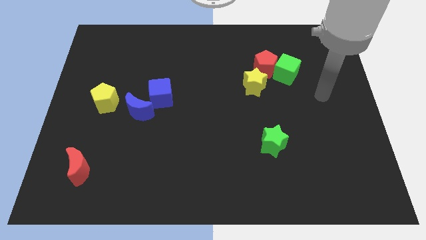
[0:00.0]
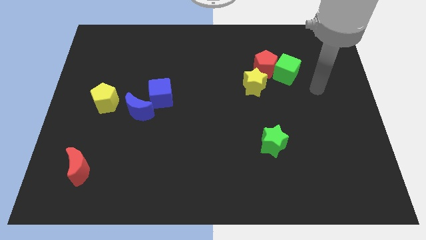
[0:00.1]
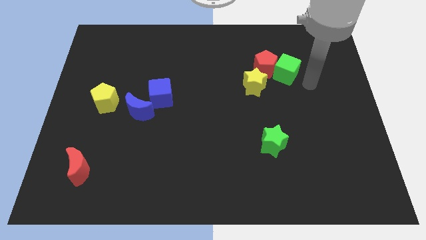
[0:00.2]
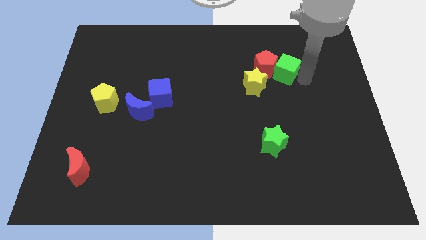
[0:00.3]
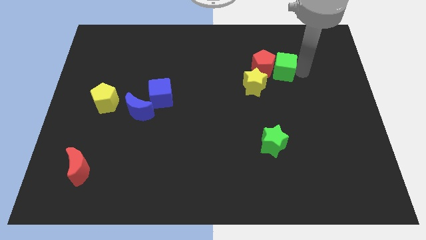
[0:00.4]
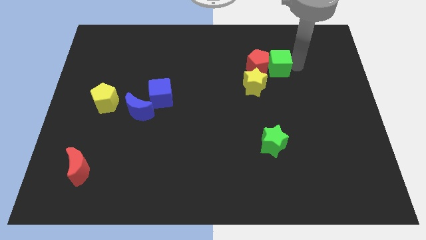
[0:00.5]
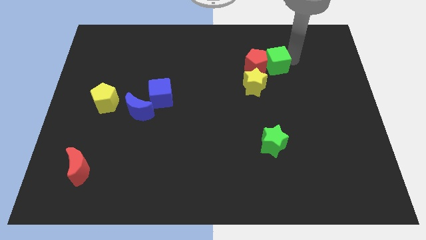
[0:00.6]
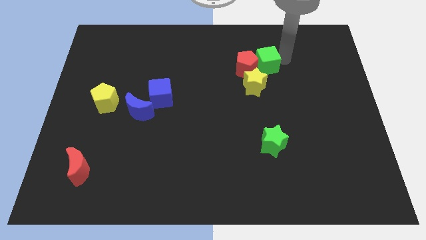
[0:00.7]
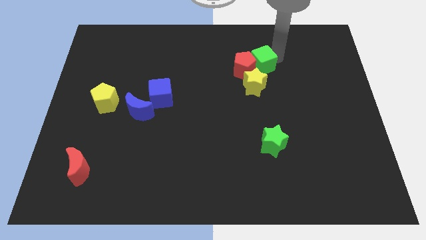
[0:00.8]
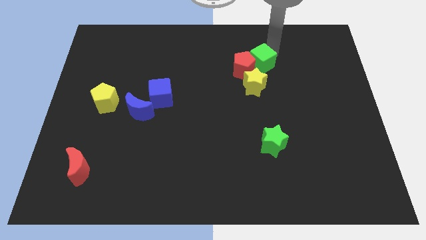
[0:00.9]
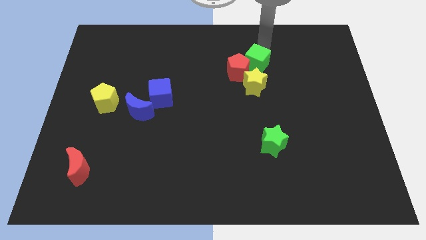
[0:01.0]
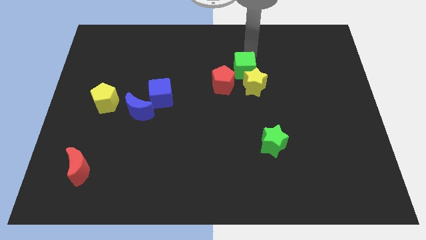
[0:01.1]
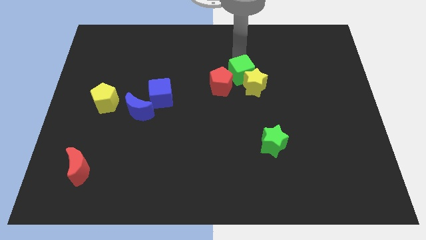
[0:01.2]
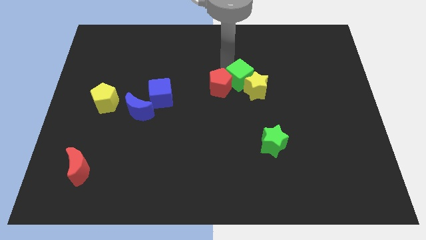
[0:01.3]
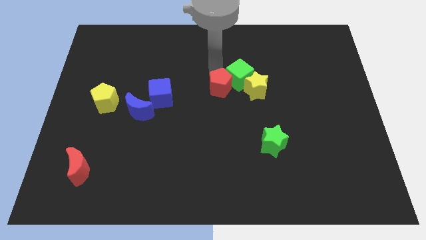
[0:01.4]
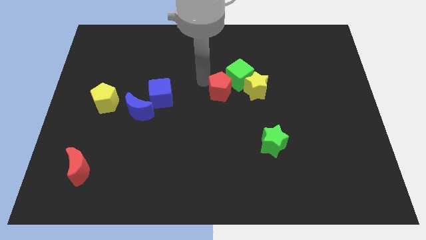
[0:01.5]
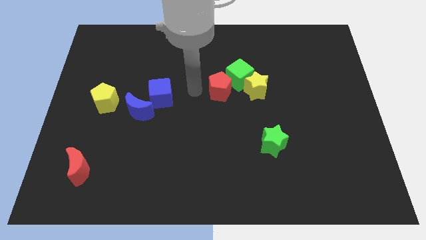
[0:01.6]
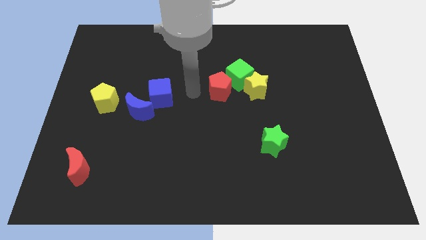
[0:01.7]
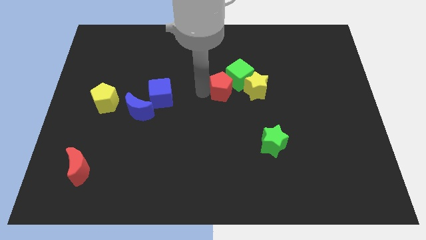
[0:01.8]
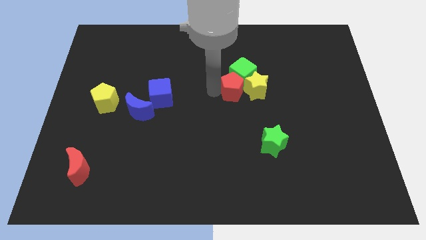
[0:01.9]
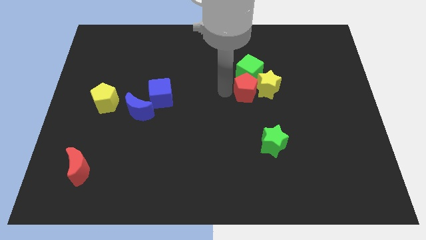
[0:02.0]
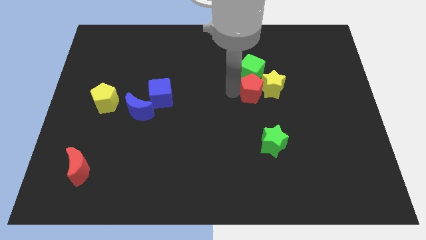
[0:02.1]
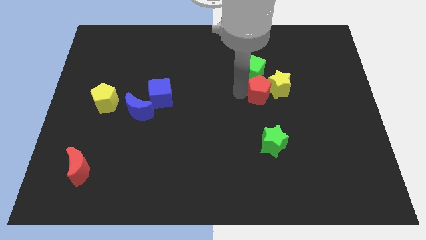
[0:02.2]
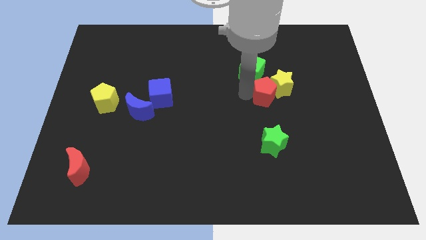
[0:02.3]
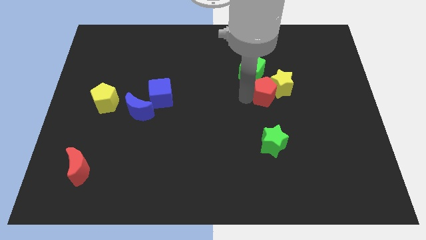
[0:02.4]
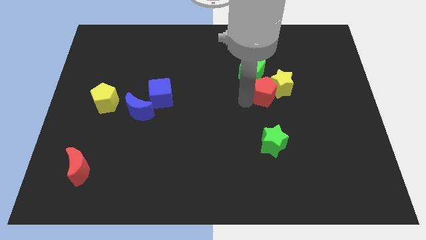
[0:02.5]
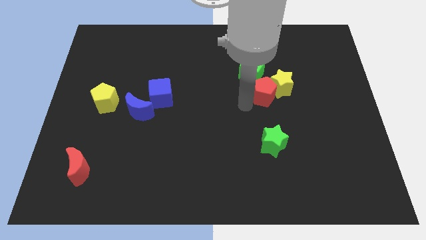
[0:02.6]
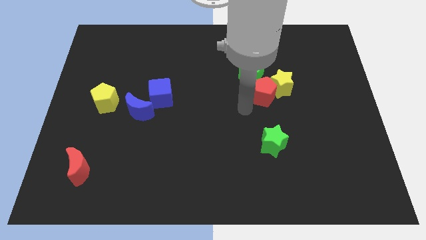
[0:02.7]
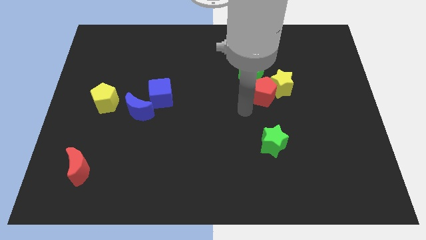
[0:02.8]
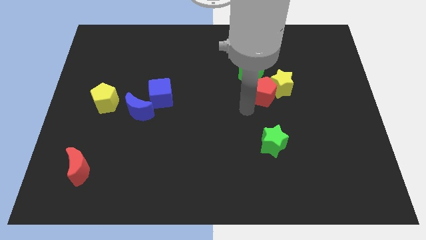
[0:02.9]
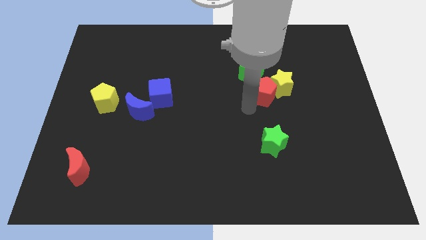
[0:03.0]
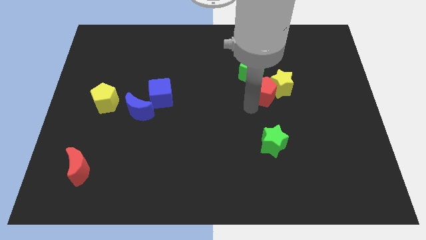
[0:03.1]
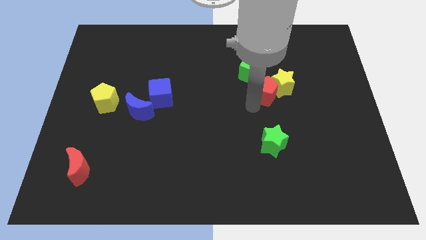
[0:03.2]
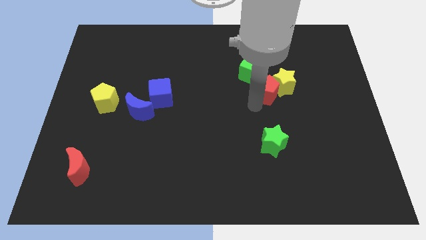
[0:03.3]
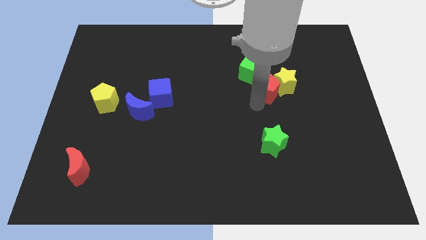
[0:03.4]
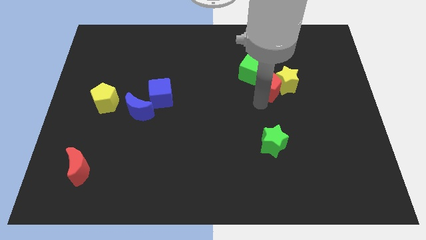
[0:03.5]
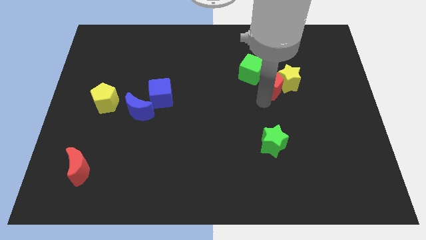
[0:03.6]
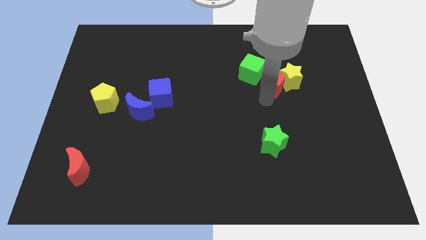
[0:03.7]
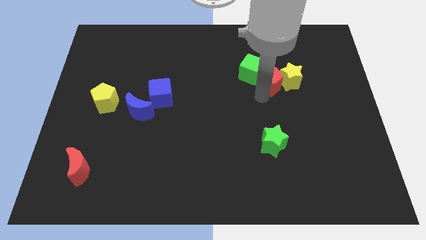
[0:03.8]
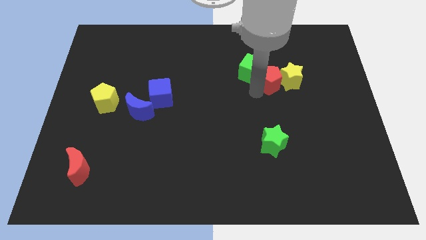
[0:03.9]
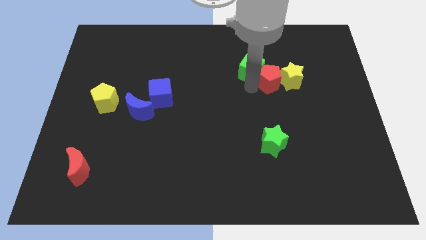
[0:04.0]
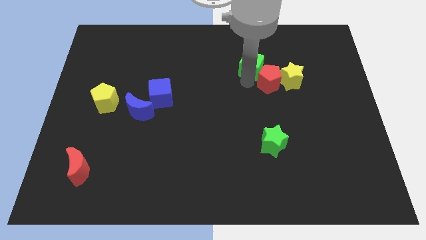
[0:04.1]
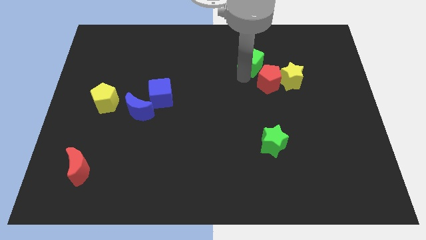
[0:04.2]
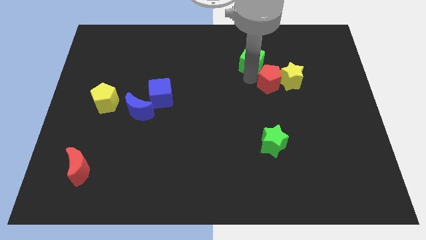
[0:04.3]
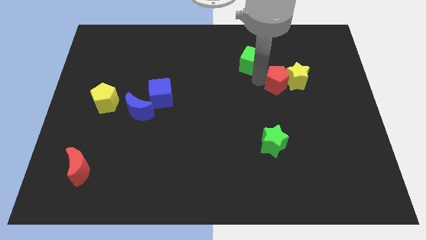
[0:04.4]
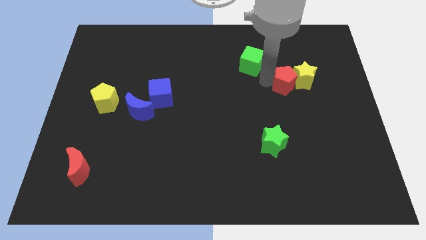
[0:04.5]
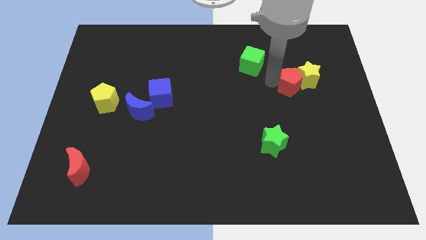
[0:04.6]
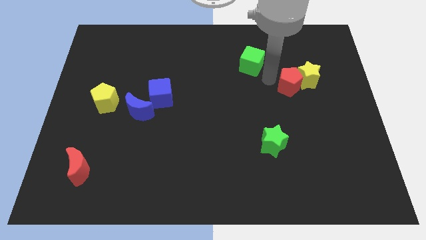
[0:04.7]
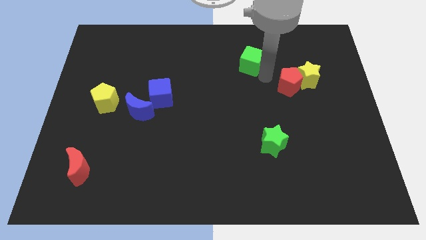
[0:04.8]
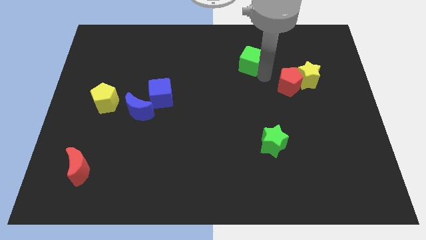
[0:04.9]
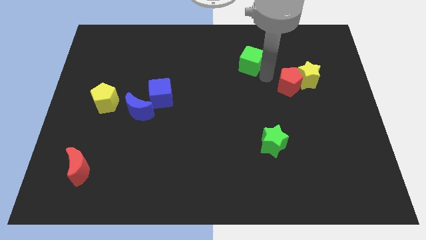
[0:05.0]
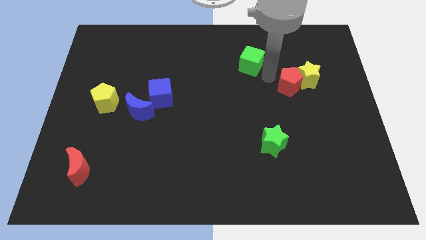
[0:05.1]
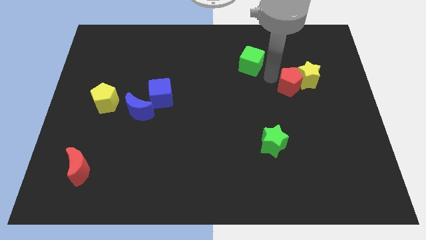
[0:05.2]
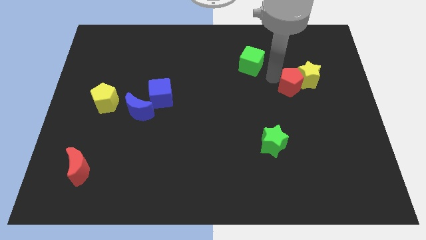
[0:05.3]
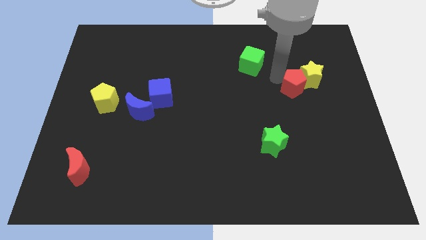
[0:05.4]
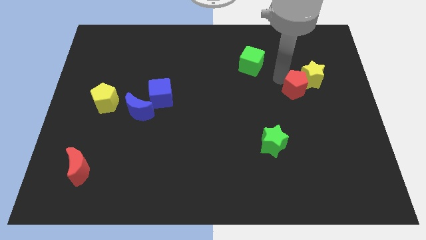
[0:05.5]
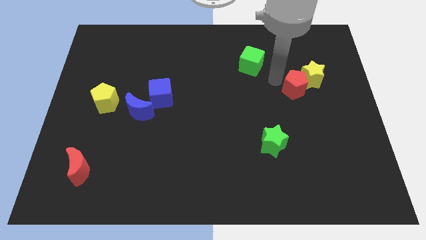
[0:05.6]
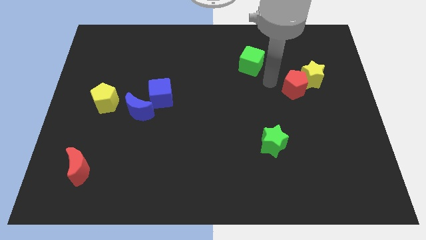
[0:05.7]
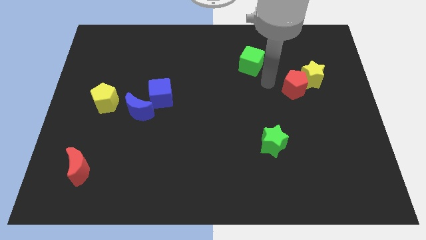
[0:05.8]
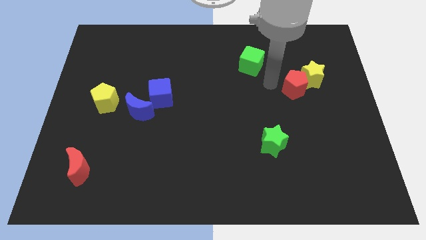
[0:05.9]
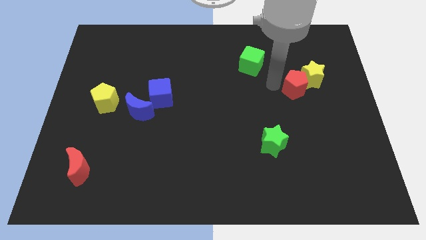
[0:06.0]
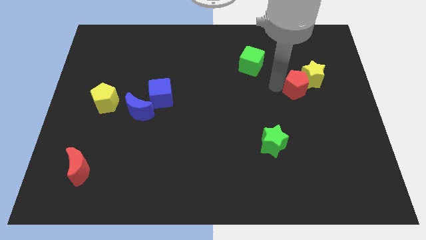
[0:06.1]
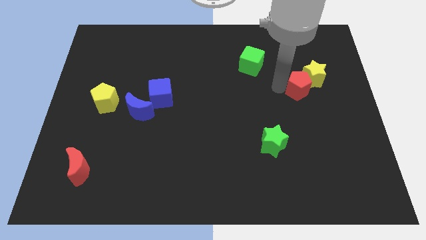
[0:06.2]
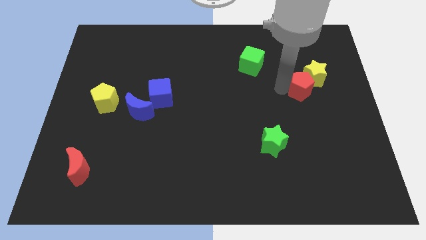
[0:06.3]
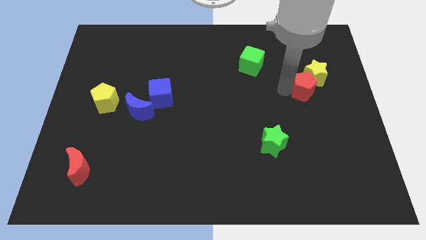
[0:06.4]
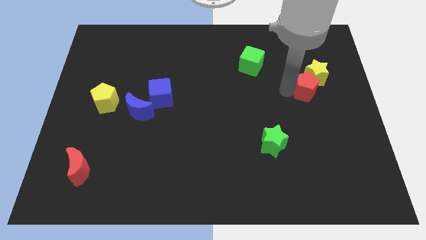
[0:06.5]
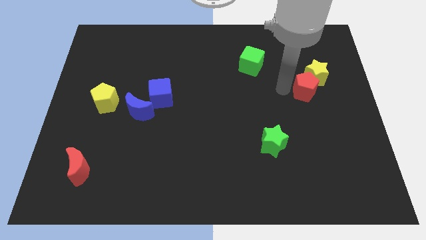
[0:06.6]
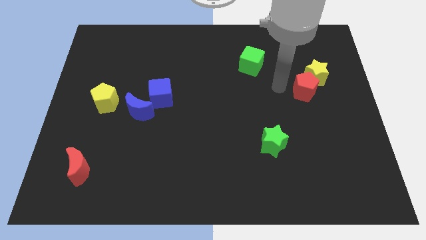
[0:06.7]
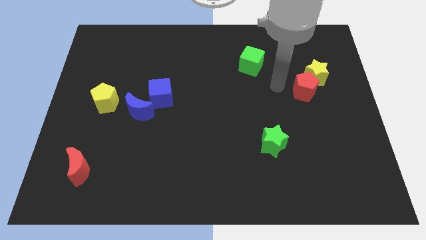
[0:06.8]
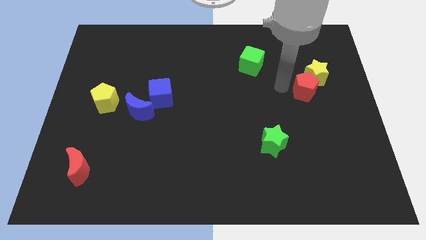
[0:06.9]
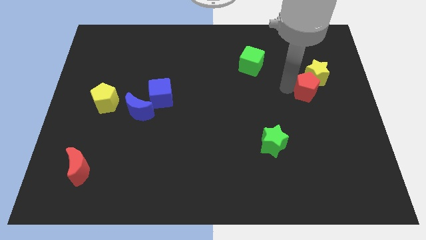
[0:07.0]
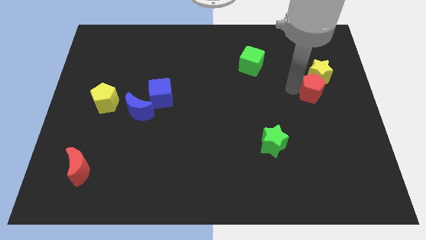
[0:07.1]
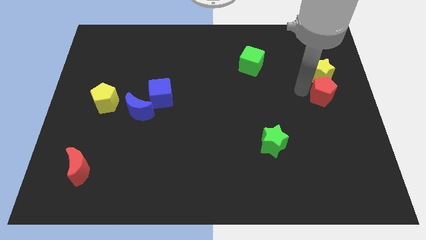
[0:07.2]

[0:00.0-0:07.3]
move the red pentagon to the right side
